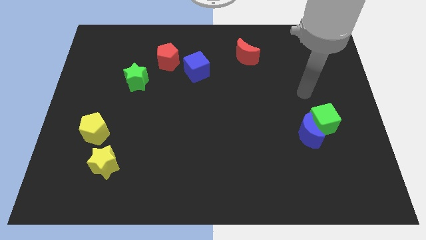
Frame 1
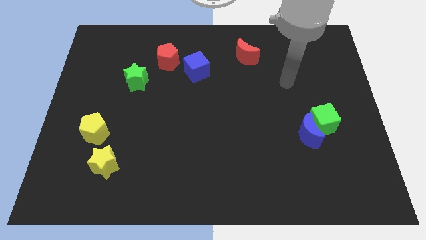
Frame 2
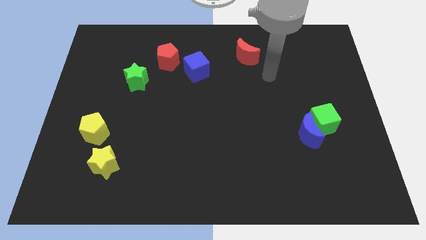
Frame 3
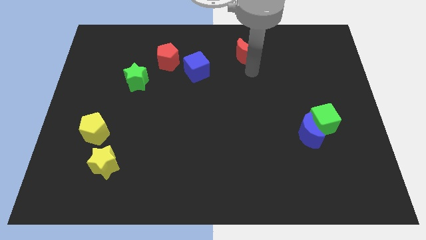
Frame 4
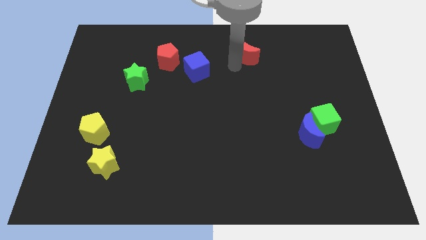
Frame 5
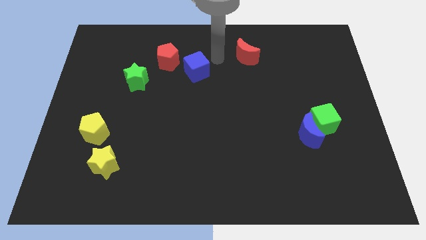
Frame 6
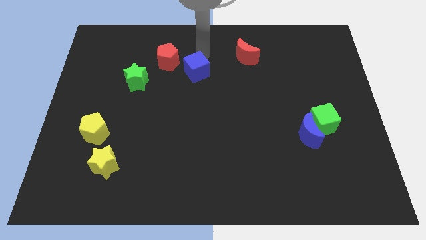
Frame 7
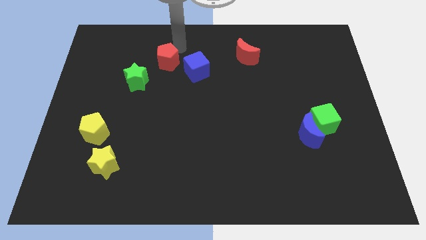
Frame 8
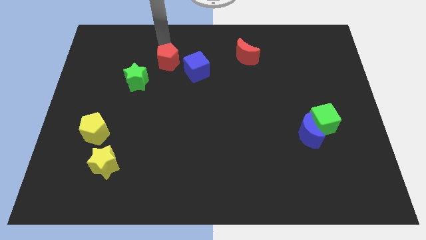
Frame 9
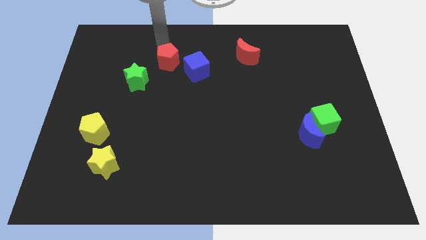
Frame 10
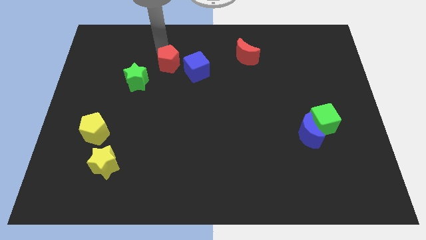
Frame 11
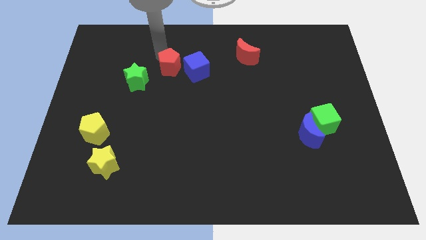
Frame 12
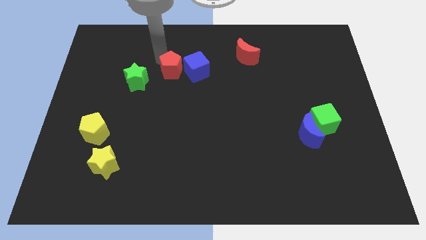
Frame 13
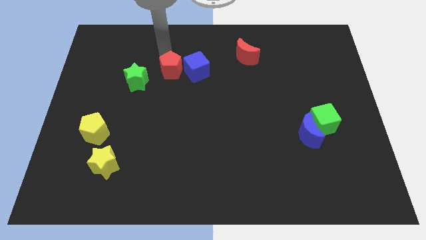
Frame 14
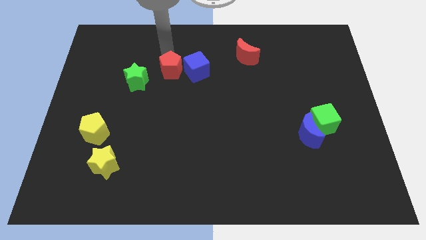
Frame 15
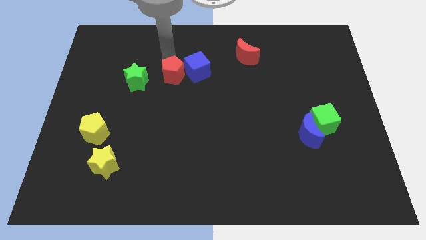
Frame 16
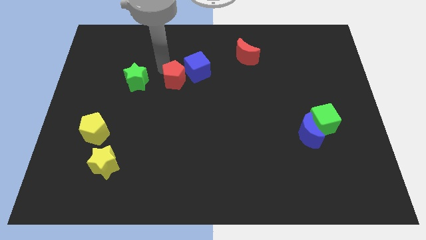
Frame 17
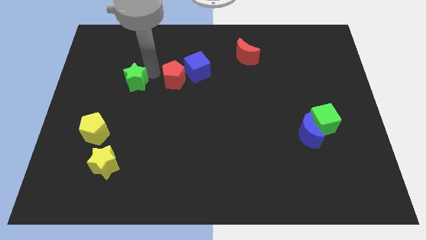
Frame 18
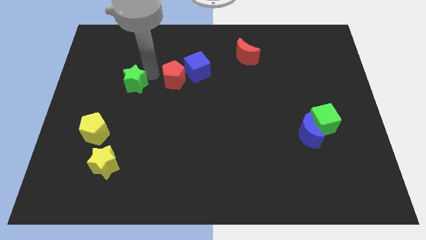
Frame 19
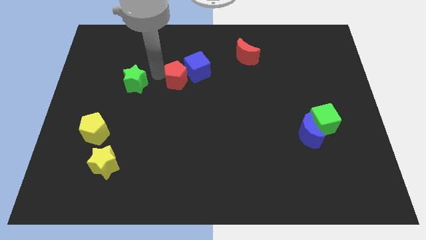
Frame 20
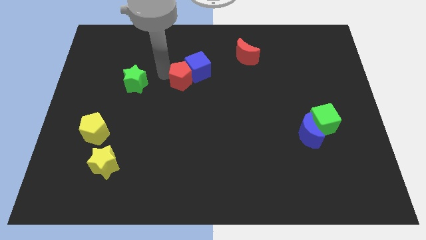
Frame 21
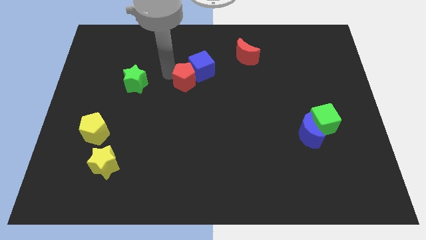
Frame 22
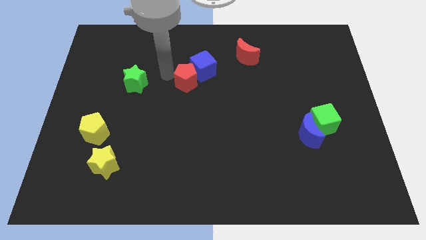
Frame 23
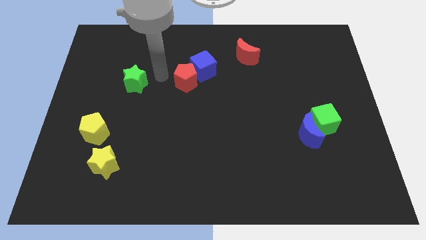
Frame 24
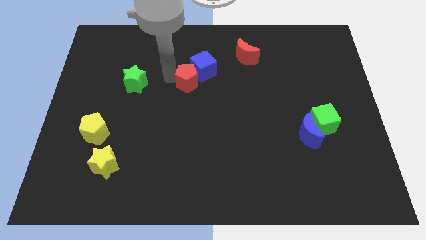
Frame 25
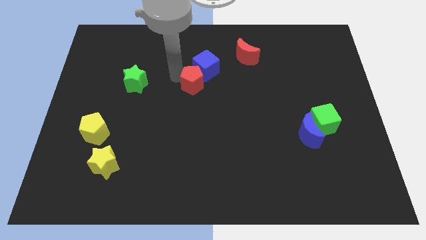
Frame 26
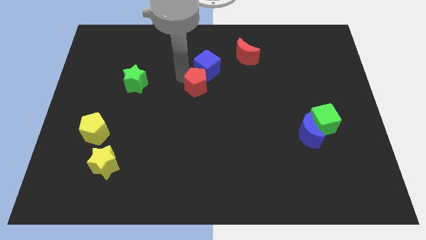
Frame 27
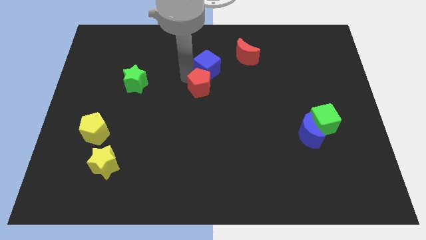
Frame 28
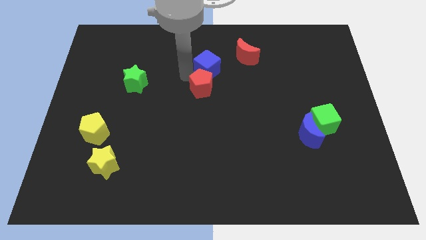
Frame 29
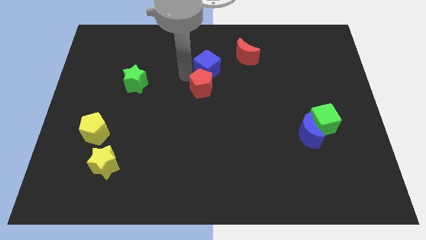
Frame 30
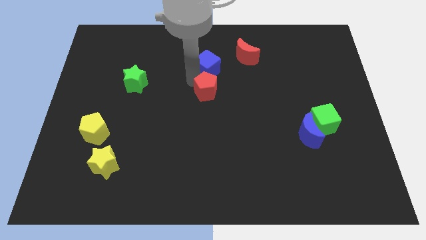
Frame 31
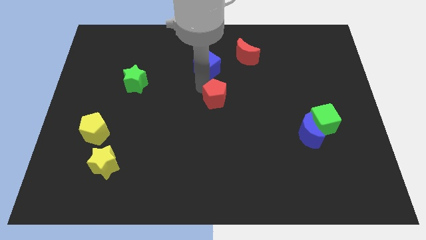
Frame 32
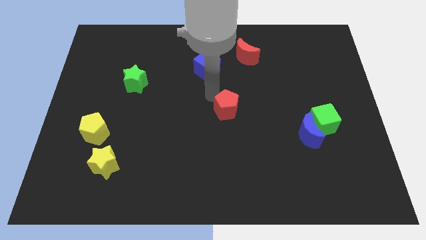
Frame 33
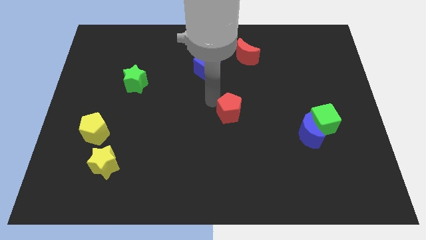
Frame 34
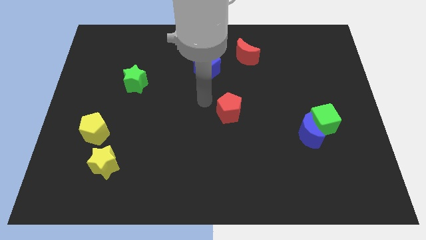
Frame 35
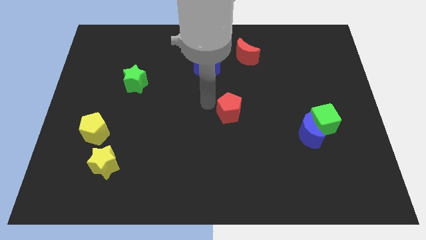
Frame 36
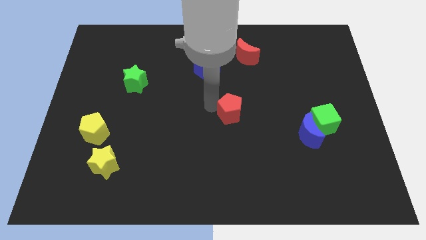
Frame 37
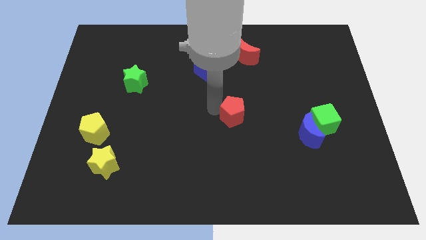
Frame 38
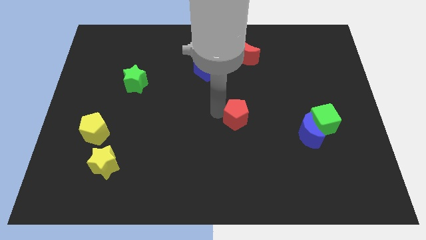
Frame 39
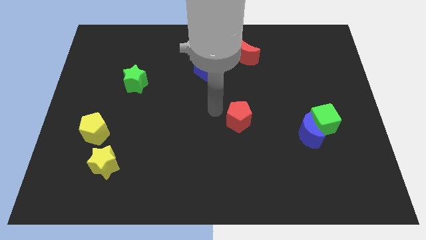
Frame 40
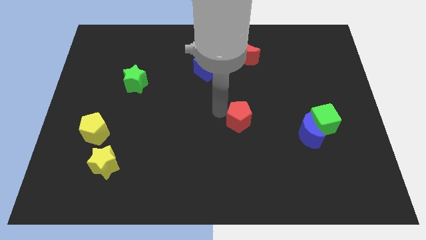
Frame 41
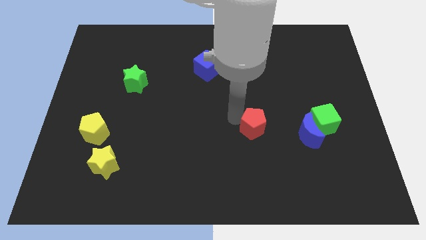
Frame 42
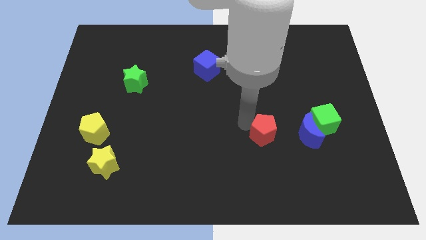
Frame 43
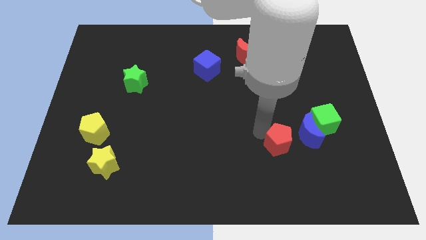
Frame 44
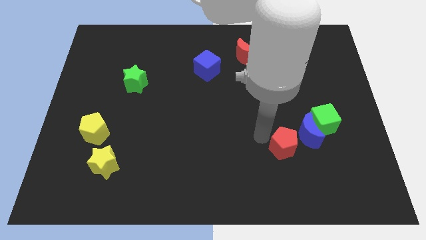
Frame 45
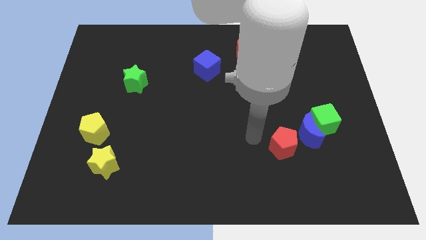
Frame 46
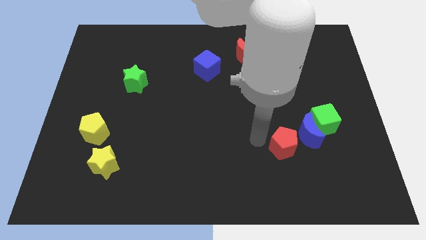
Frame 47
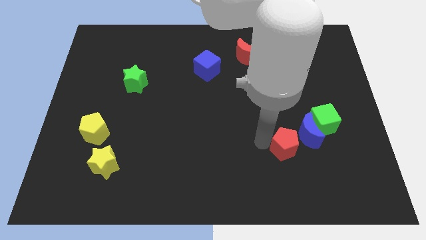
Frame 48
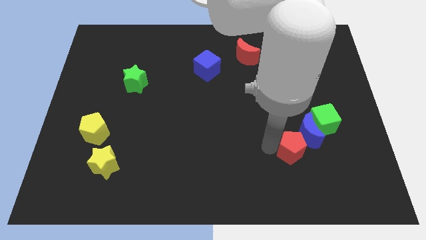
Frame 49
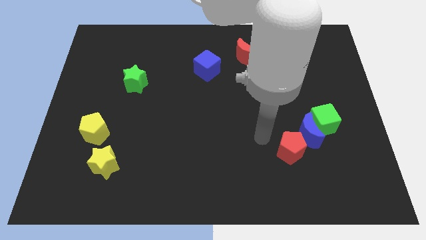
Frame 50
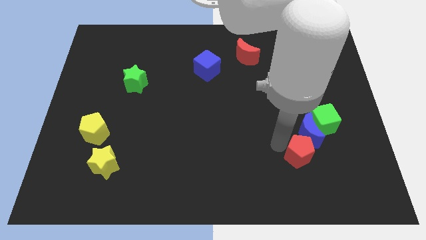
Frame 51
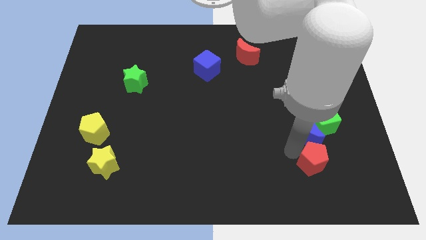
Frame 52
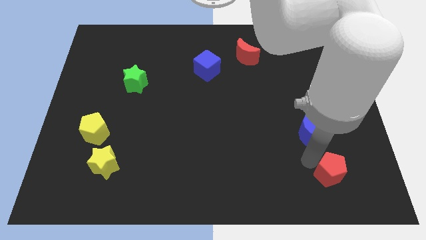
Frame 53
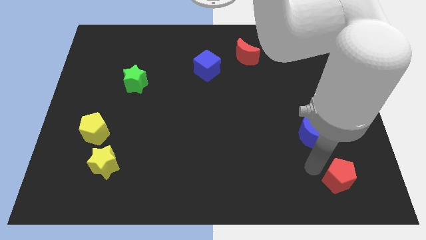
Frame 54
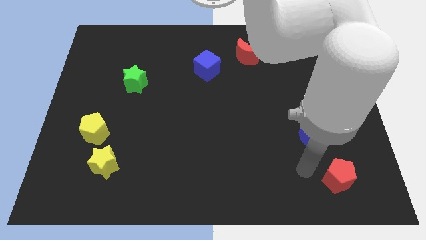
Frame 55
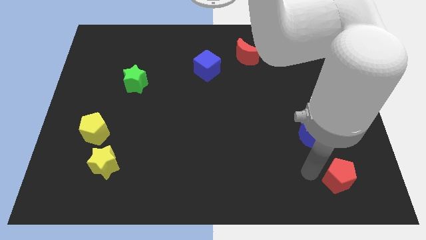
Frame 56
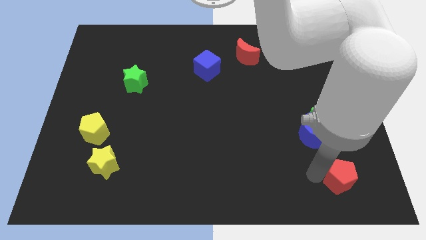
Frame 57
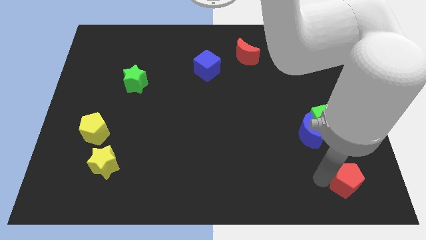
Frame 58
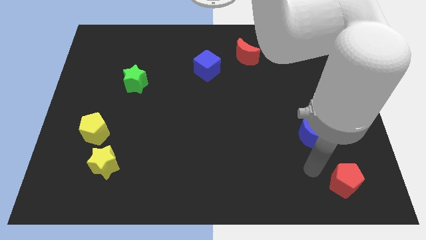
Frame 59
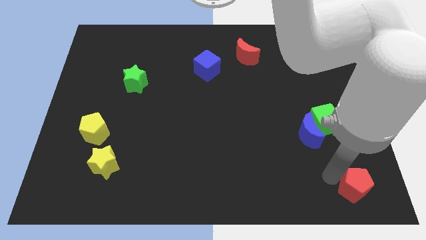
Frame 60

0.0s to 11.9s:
push the red pentagon to the bottom right of the board

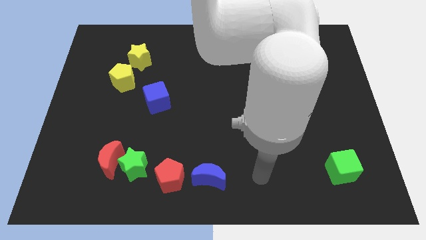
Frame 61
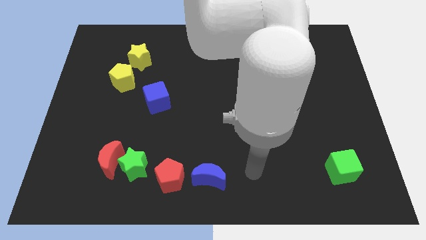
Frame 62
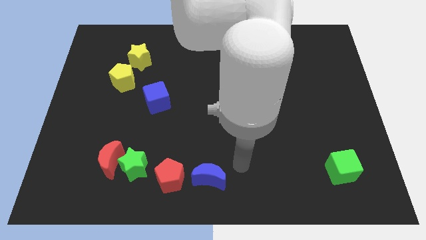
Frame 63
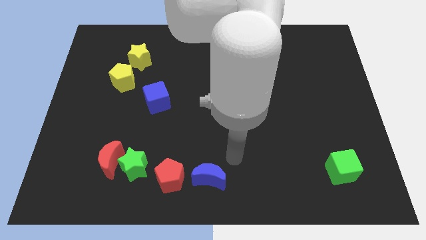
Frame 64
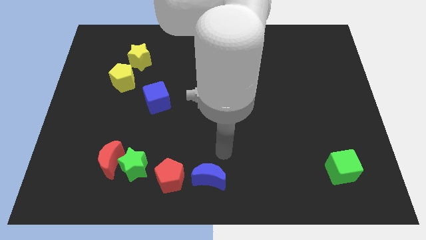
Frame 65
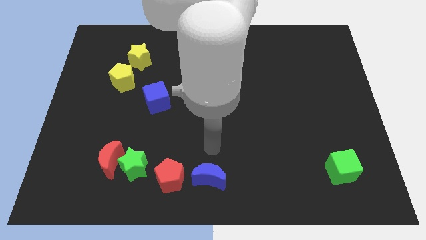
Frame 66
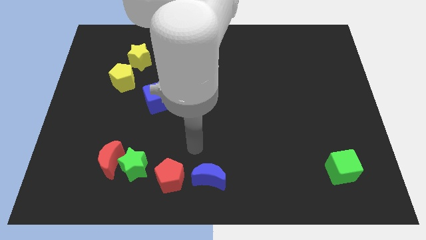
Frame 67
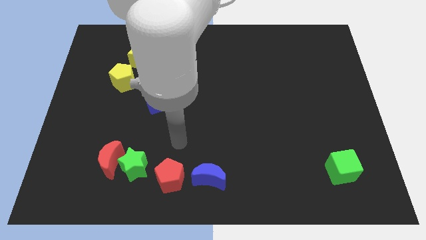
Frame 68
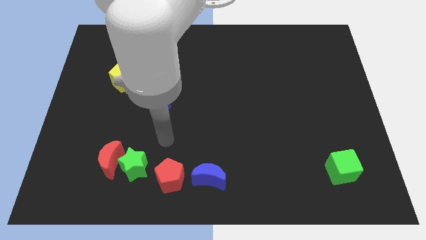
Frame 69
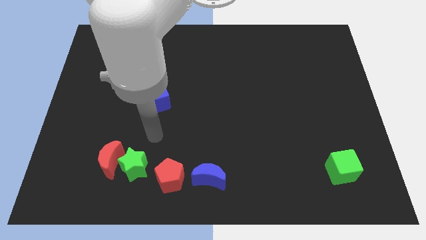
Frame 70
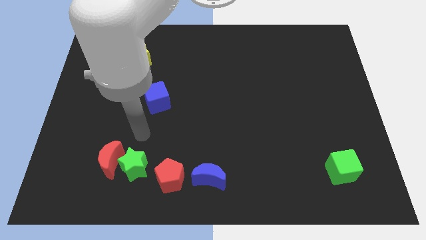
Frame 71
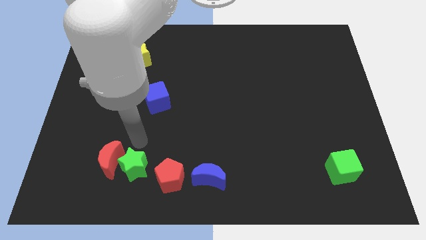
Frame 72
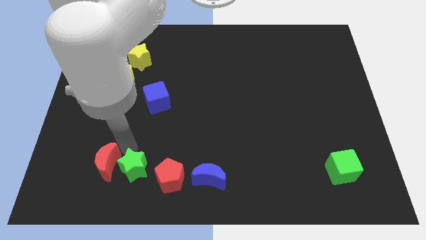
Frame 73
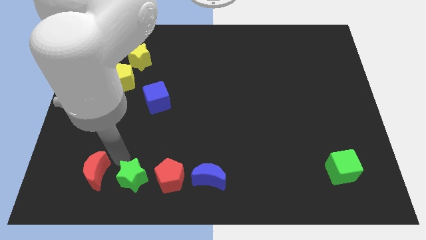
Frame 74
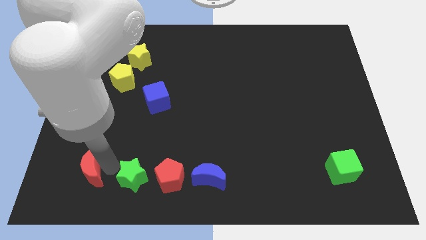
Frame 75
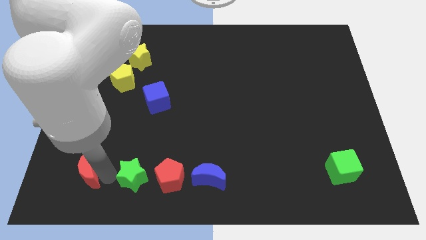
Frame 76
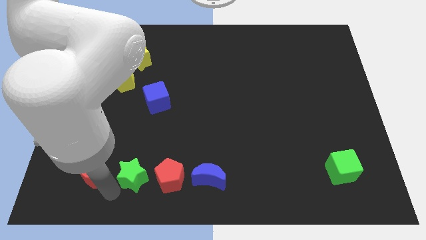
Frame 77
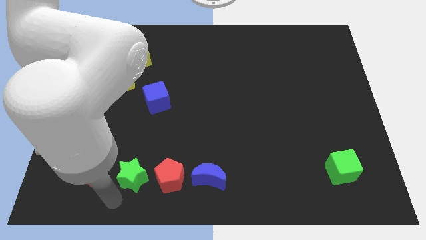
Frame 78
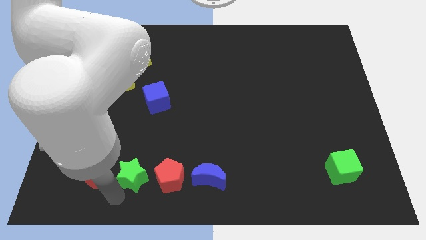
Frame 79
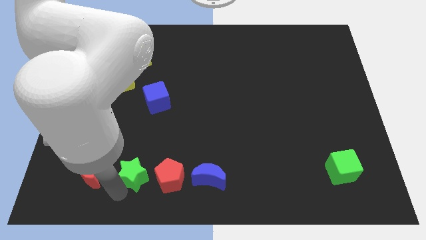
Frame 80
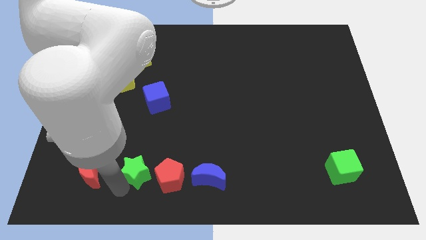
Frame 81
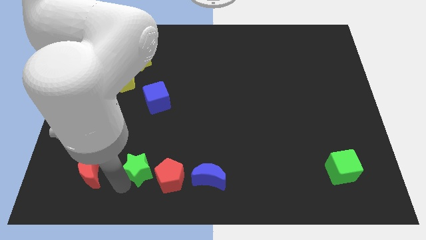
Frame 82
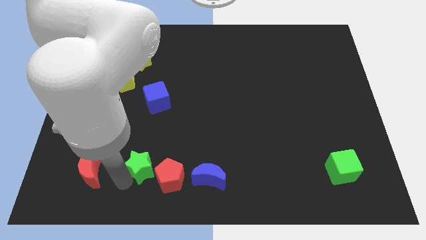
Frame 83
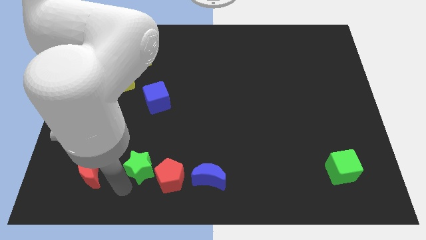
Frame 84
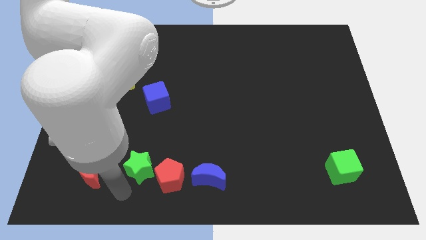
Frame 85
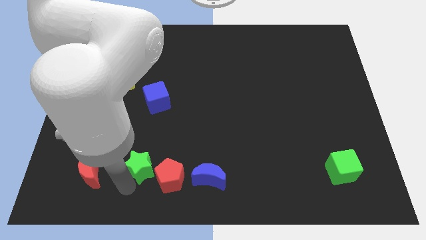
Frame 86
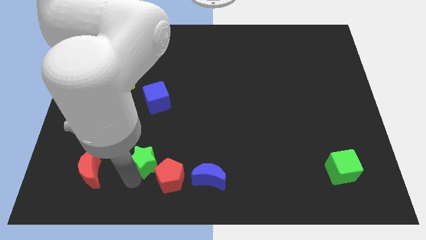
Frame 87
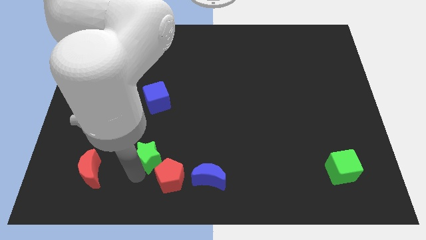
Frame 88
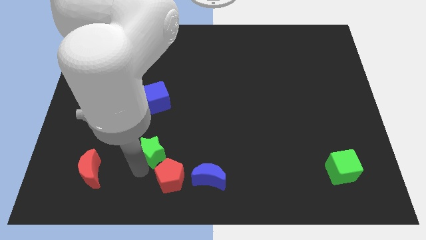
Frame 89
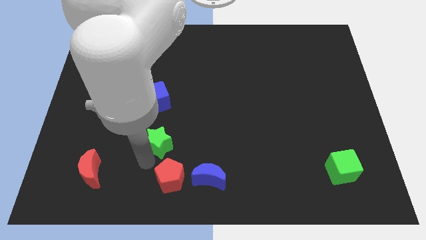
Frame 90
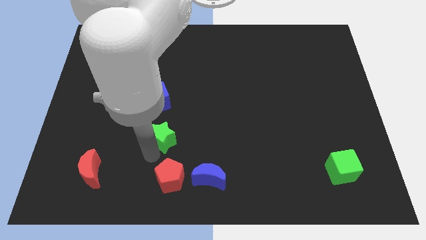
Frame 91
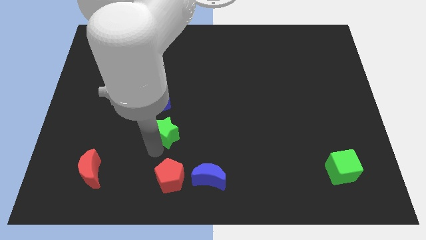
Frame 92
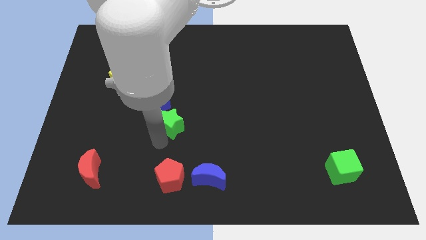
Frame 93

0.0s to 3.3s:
move the green star to the center
